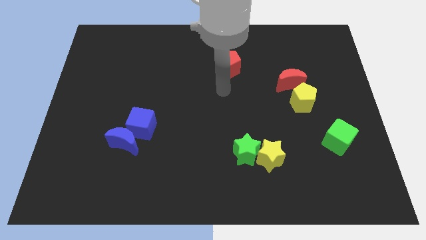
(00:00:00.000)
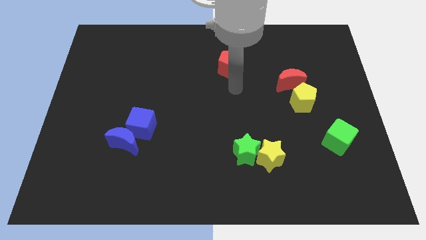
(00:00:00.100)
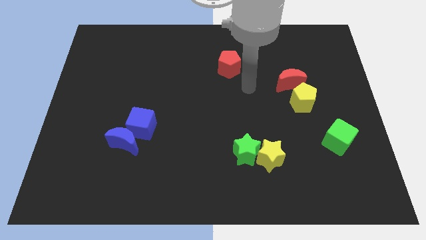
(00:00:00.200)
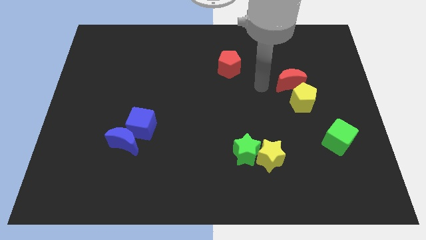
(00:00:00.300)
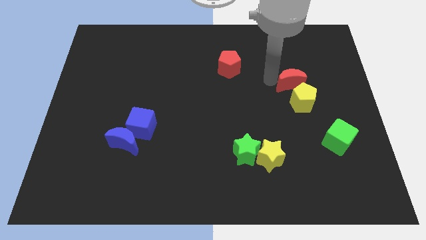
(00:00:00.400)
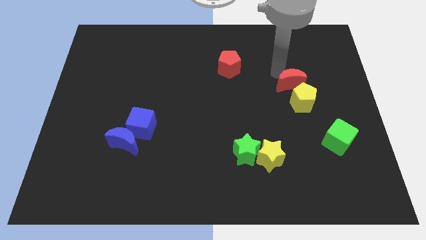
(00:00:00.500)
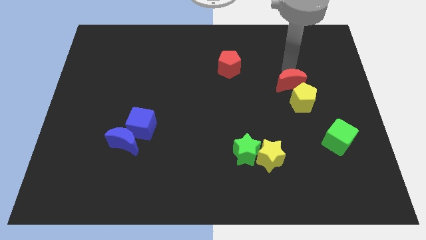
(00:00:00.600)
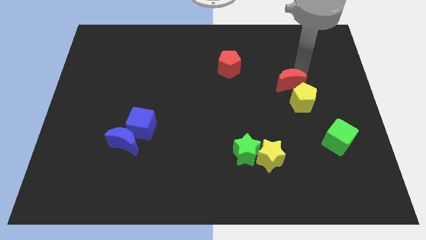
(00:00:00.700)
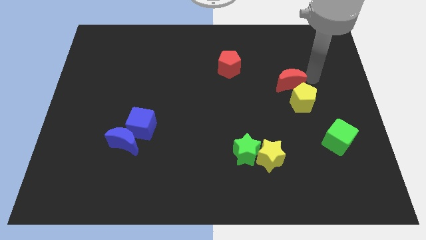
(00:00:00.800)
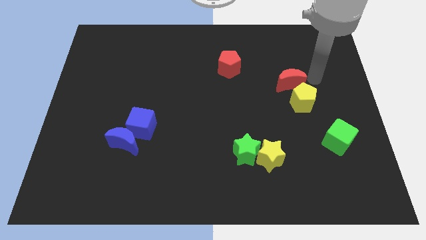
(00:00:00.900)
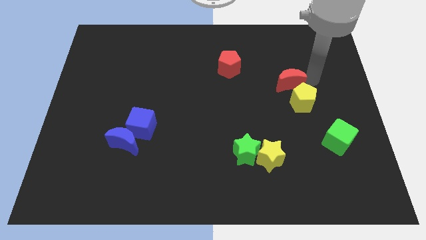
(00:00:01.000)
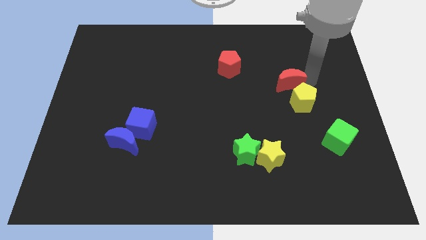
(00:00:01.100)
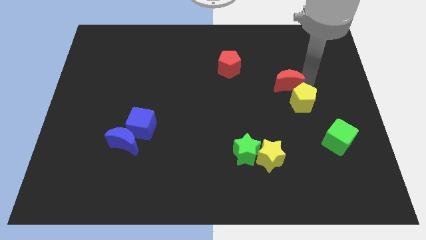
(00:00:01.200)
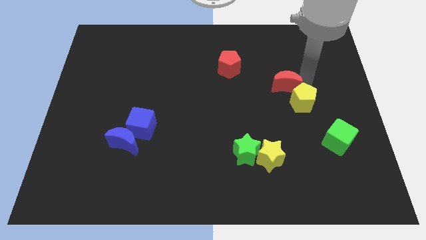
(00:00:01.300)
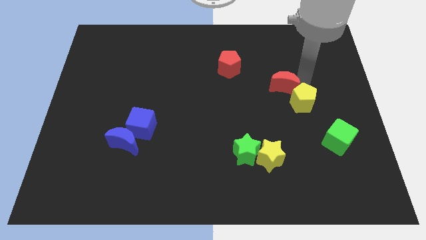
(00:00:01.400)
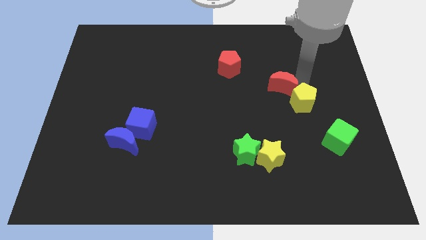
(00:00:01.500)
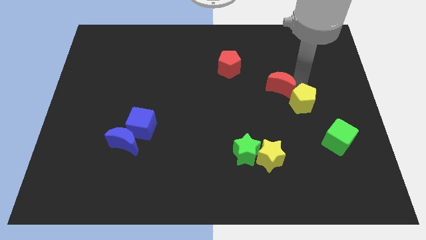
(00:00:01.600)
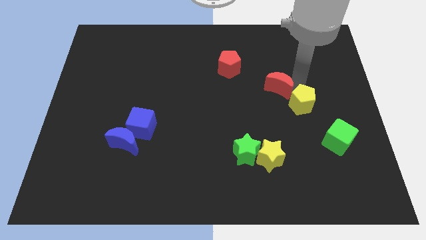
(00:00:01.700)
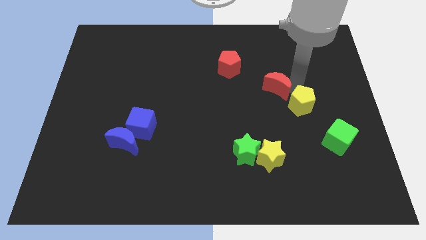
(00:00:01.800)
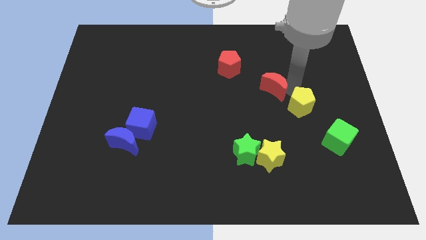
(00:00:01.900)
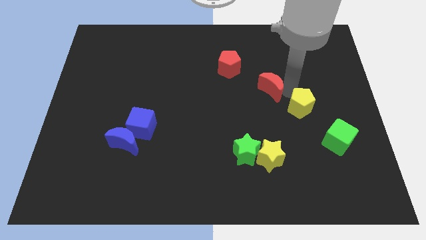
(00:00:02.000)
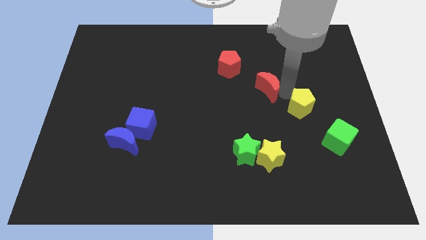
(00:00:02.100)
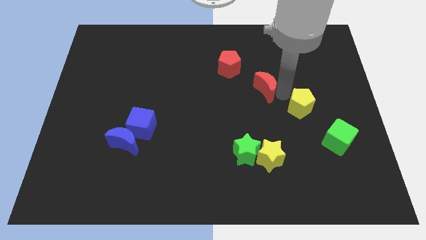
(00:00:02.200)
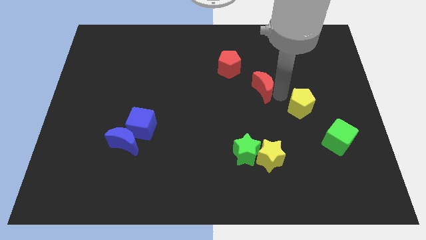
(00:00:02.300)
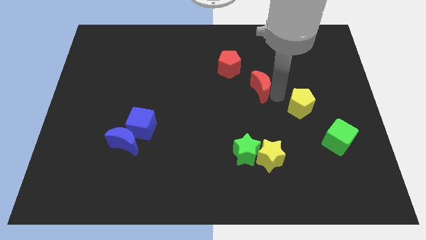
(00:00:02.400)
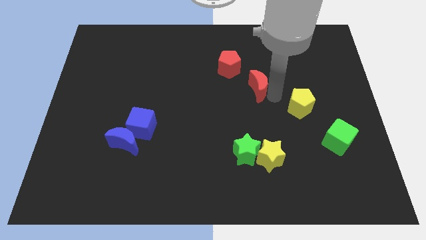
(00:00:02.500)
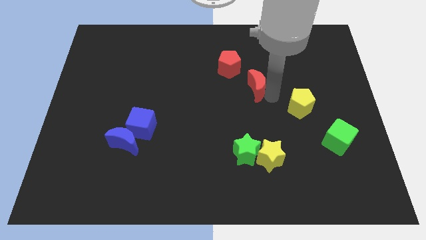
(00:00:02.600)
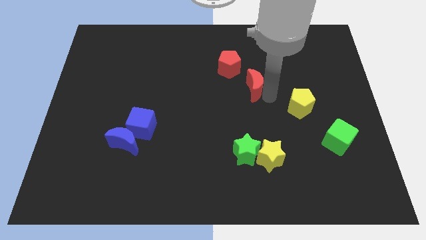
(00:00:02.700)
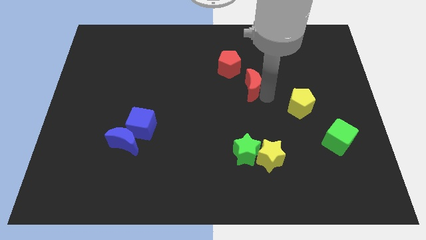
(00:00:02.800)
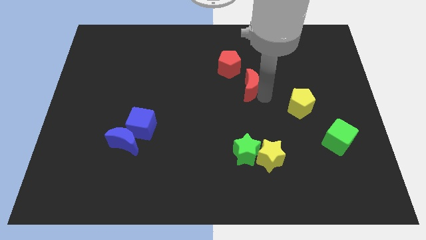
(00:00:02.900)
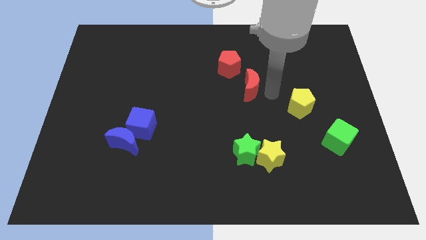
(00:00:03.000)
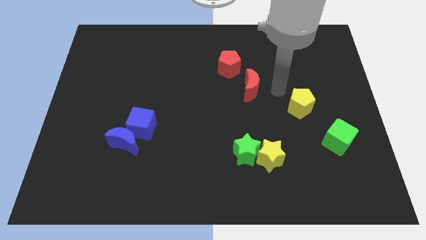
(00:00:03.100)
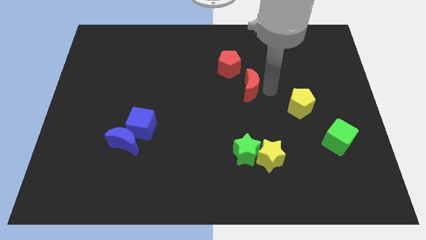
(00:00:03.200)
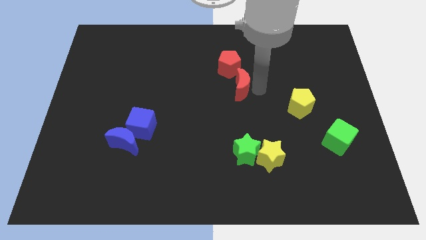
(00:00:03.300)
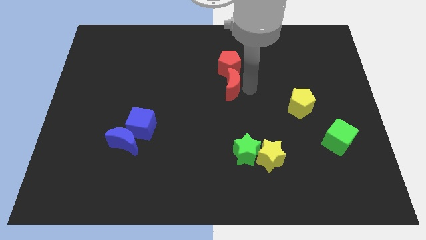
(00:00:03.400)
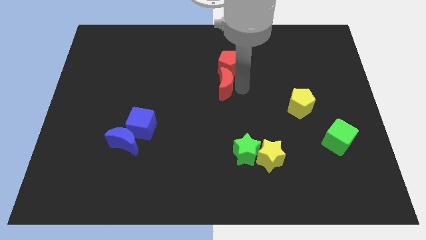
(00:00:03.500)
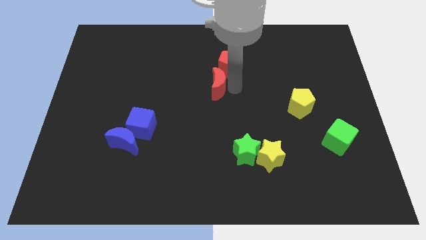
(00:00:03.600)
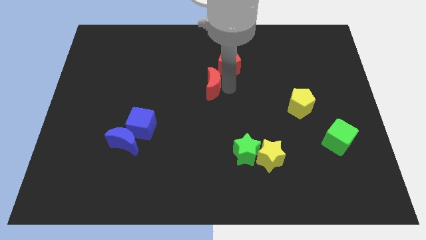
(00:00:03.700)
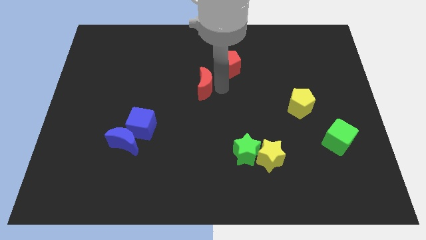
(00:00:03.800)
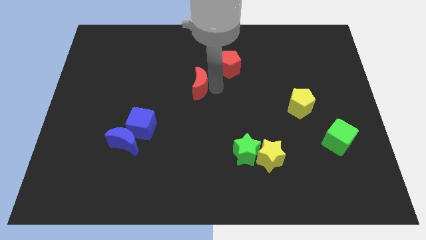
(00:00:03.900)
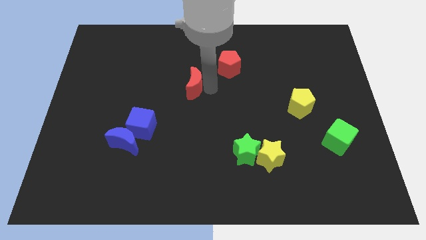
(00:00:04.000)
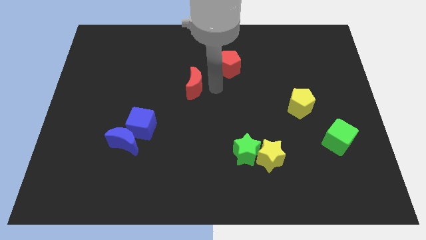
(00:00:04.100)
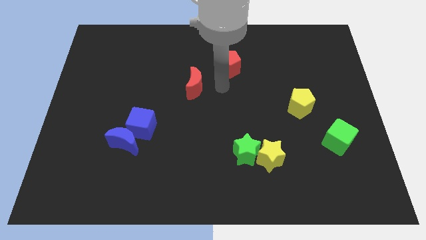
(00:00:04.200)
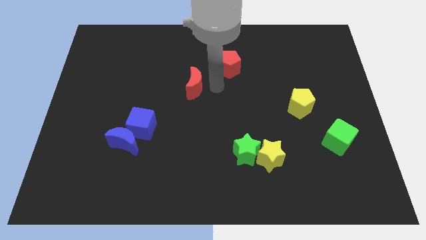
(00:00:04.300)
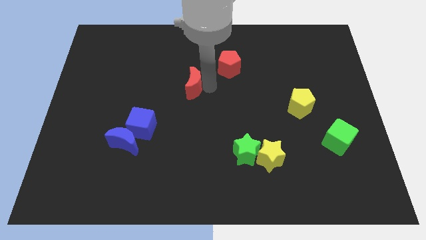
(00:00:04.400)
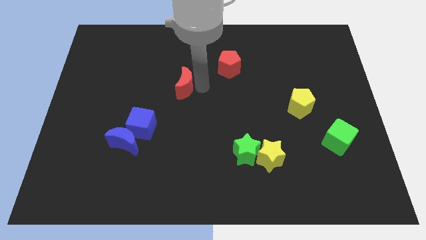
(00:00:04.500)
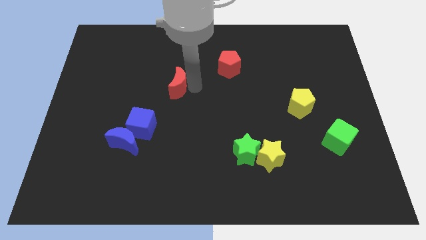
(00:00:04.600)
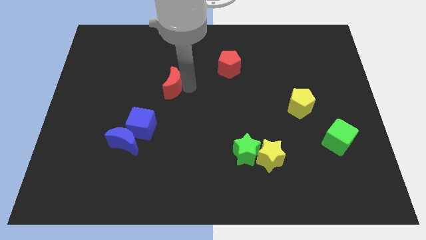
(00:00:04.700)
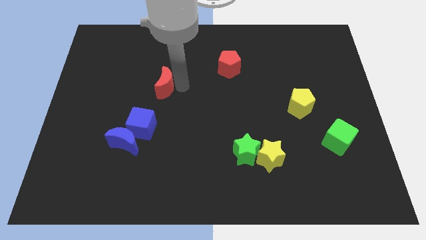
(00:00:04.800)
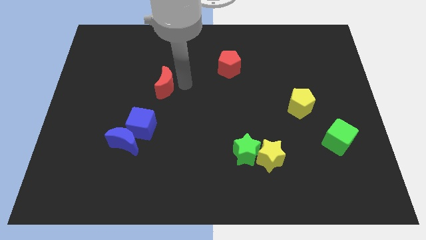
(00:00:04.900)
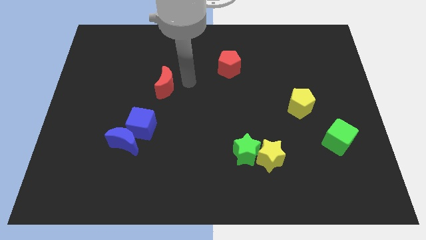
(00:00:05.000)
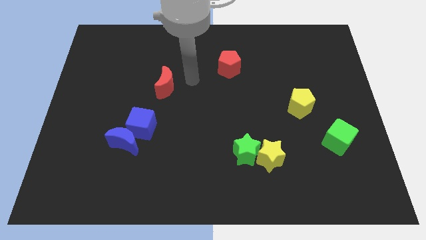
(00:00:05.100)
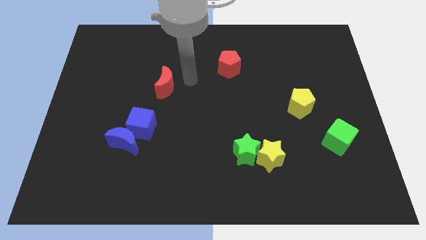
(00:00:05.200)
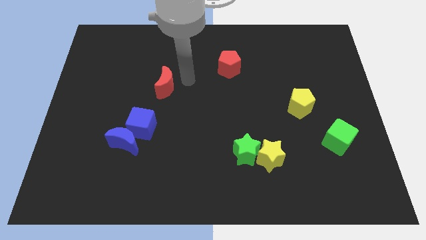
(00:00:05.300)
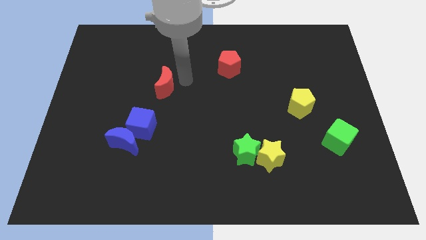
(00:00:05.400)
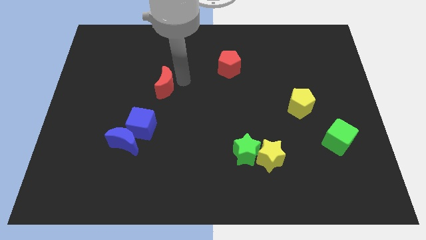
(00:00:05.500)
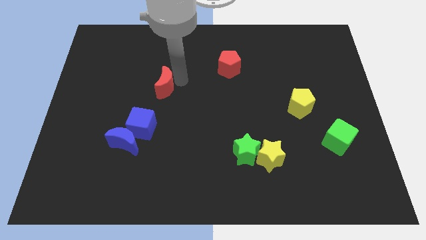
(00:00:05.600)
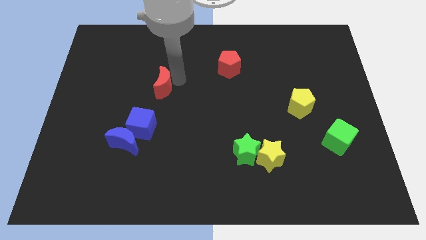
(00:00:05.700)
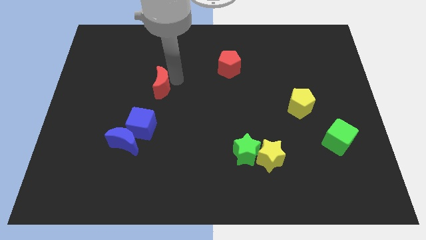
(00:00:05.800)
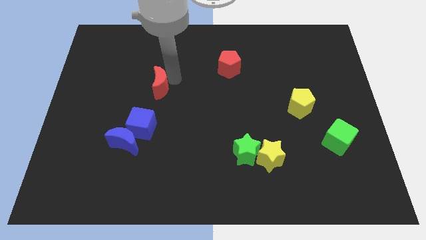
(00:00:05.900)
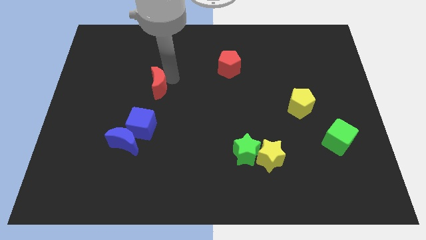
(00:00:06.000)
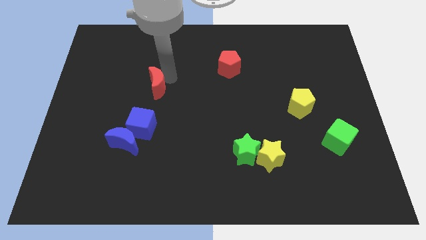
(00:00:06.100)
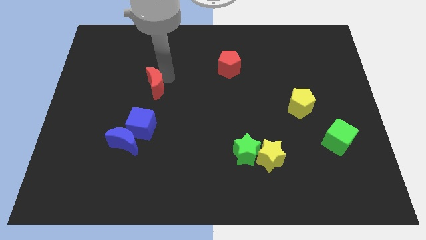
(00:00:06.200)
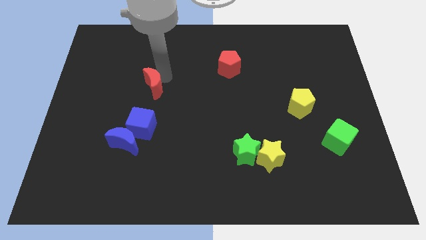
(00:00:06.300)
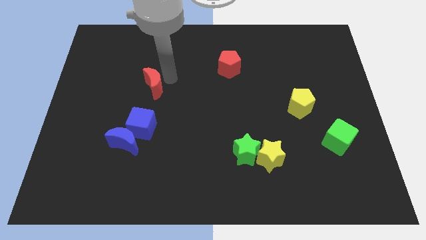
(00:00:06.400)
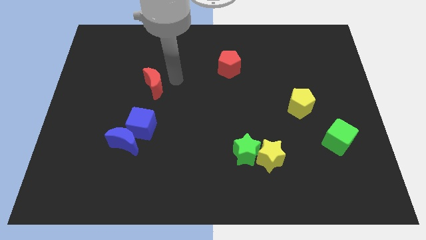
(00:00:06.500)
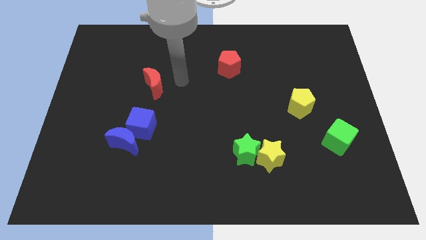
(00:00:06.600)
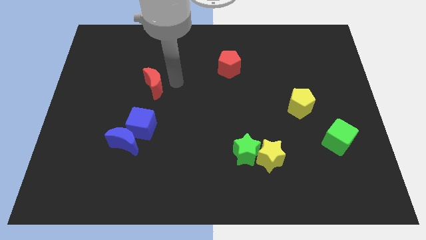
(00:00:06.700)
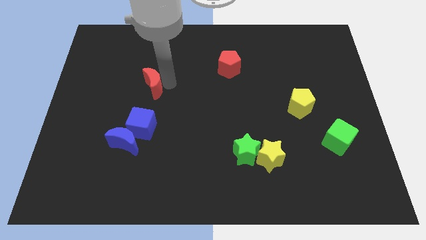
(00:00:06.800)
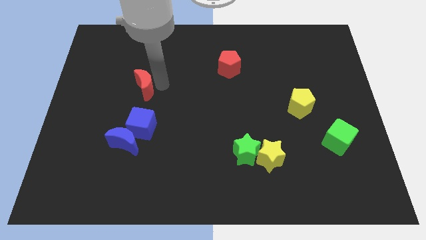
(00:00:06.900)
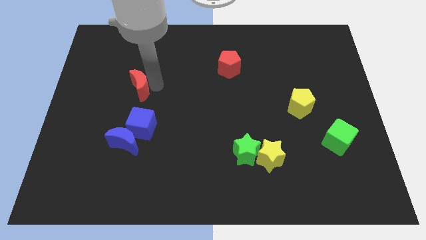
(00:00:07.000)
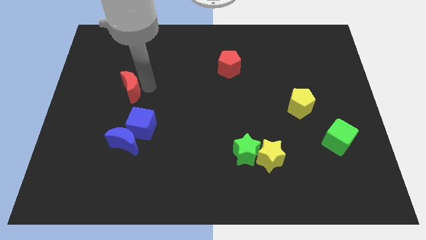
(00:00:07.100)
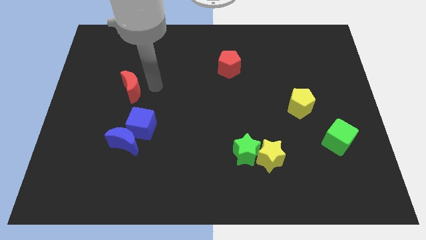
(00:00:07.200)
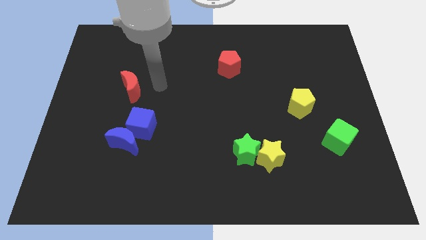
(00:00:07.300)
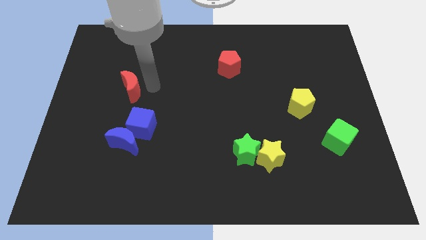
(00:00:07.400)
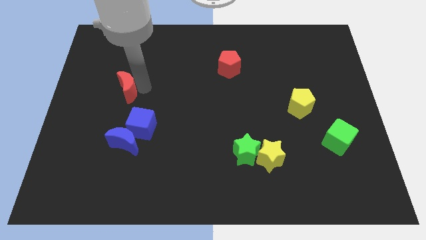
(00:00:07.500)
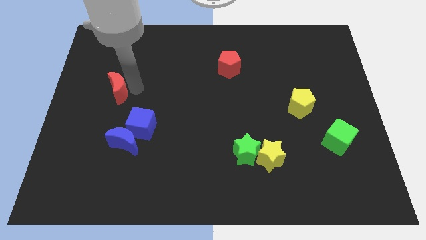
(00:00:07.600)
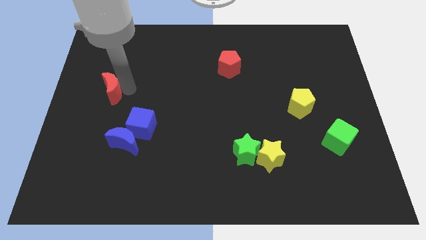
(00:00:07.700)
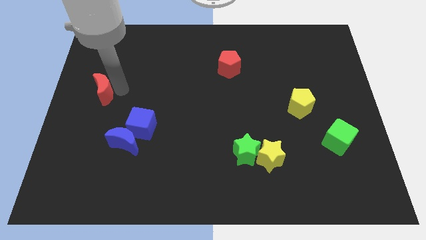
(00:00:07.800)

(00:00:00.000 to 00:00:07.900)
push the red moon to the left side
